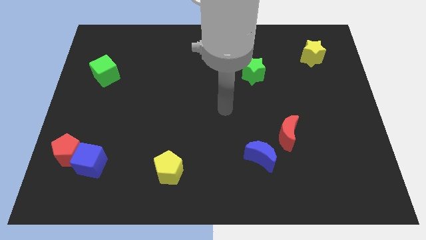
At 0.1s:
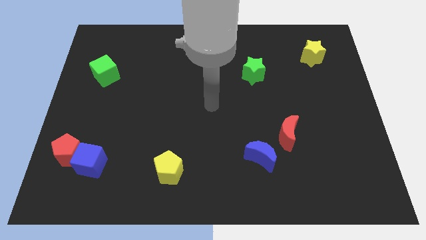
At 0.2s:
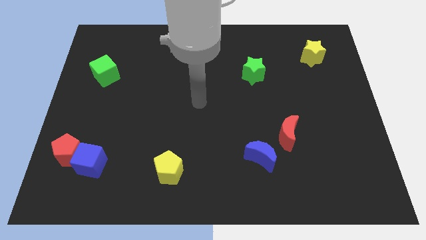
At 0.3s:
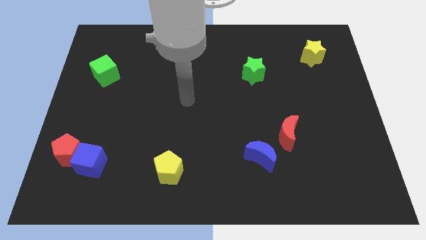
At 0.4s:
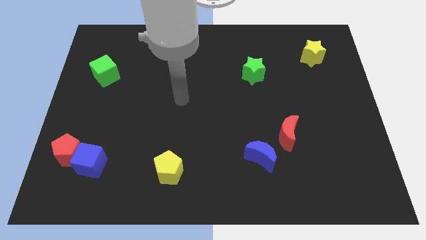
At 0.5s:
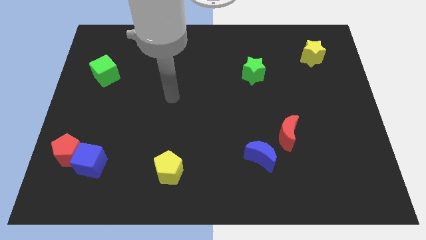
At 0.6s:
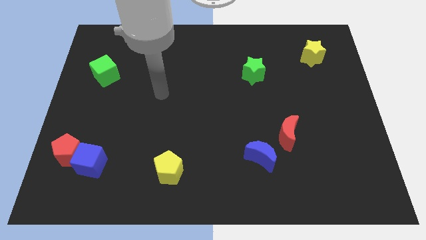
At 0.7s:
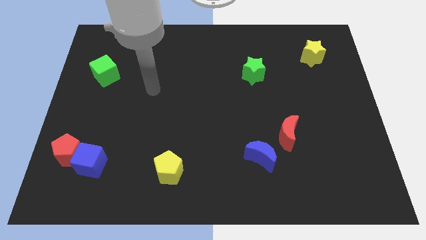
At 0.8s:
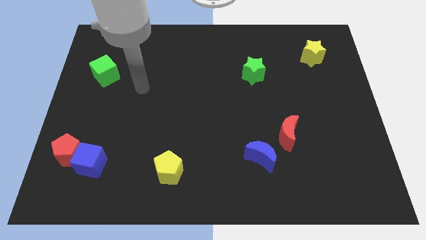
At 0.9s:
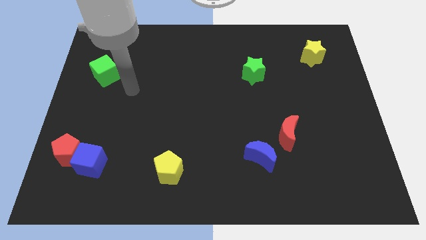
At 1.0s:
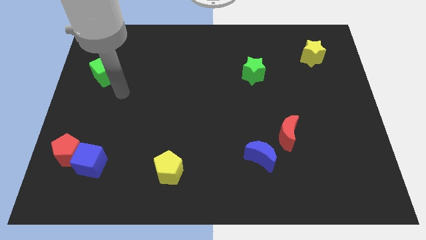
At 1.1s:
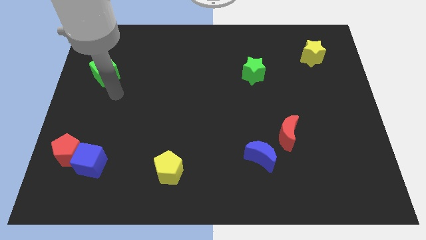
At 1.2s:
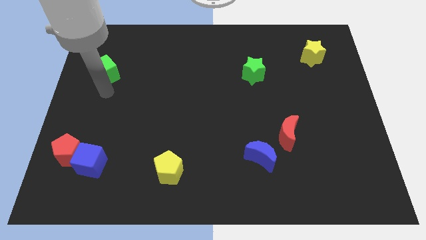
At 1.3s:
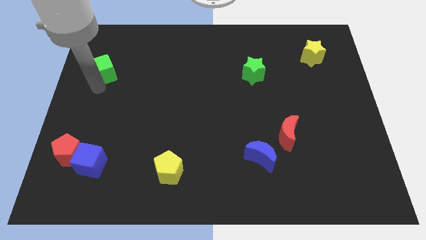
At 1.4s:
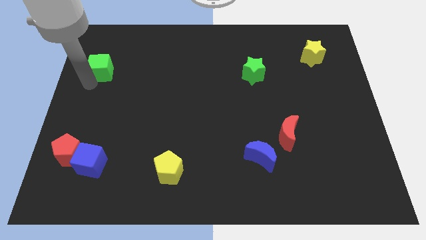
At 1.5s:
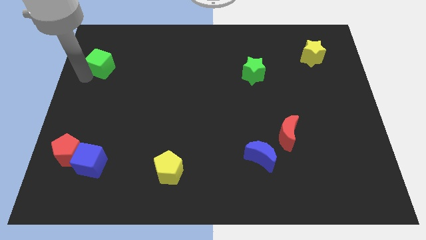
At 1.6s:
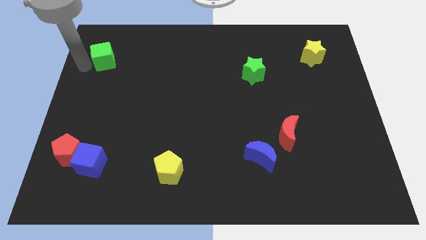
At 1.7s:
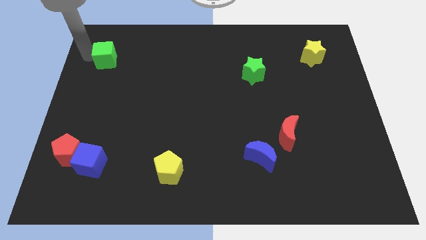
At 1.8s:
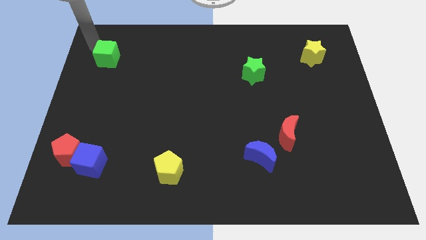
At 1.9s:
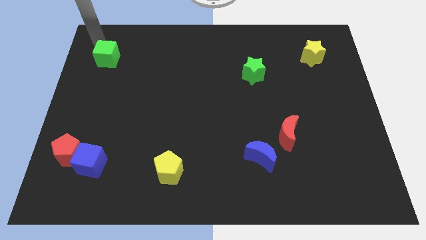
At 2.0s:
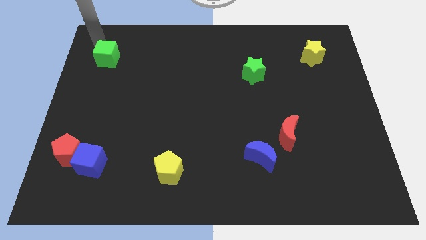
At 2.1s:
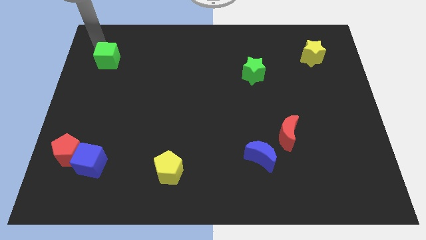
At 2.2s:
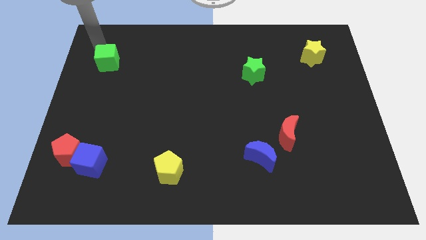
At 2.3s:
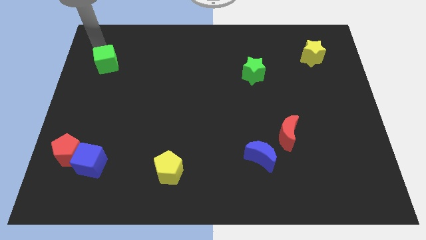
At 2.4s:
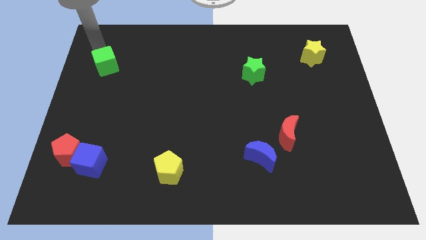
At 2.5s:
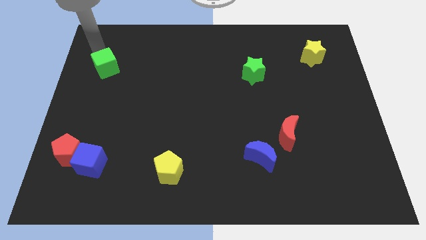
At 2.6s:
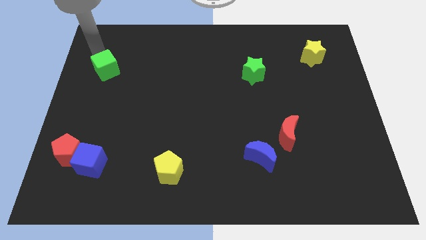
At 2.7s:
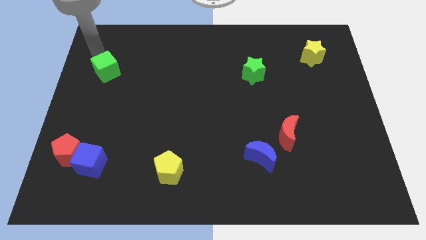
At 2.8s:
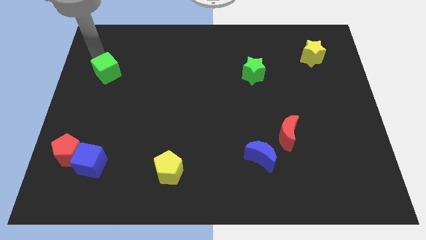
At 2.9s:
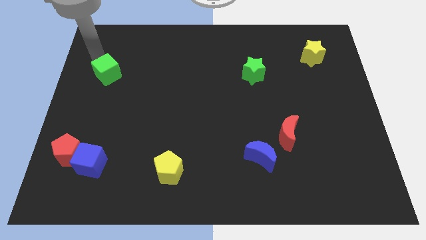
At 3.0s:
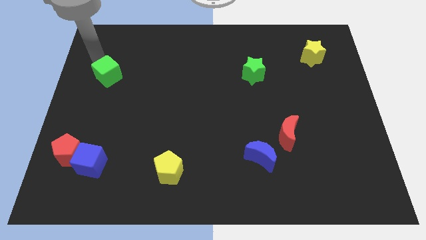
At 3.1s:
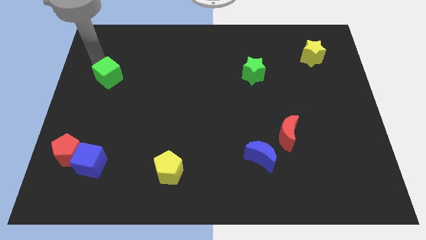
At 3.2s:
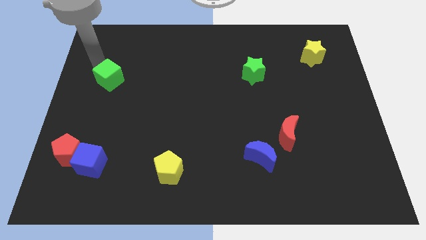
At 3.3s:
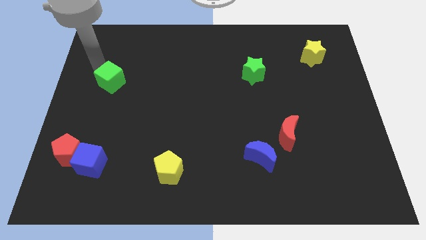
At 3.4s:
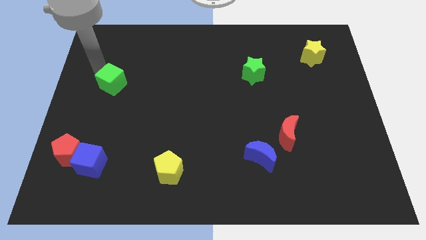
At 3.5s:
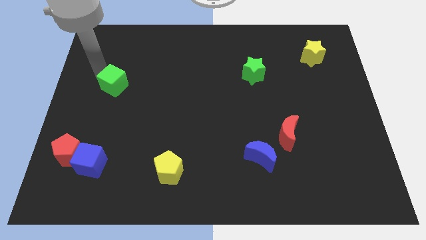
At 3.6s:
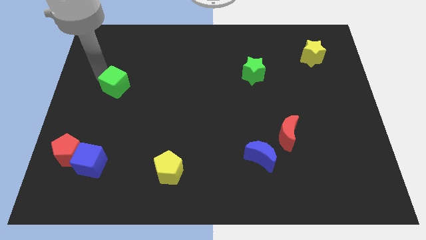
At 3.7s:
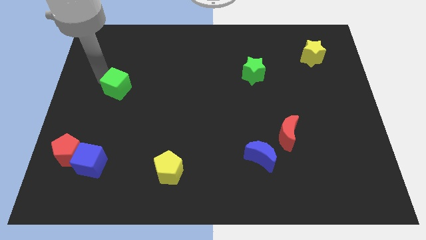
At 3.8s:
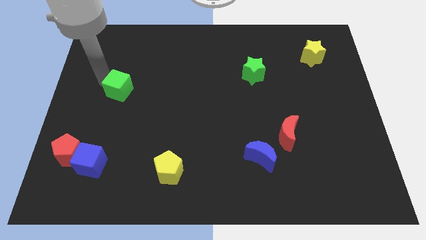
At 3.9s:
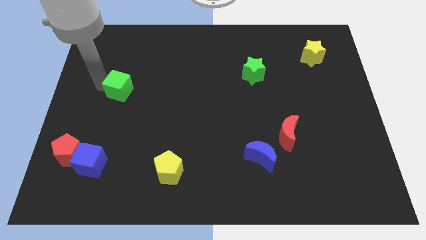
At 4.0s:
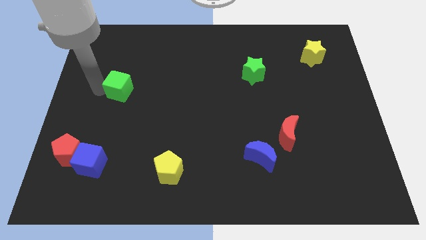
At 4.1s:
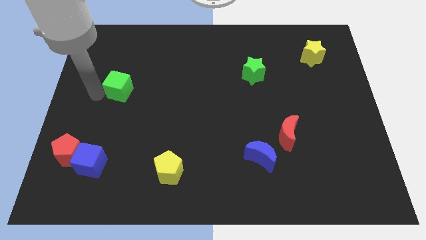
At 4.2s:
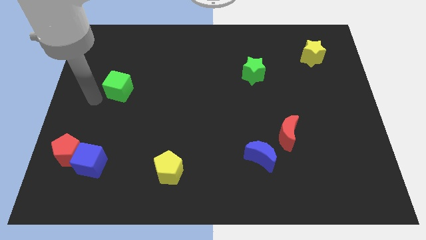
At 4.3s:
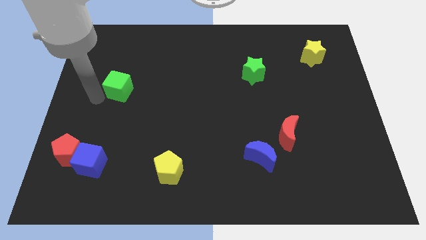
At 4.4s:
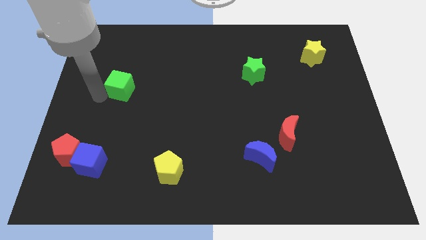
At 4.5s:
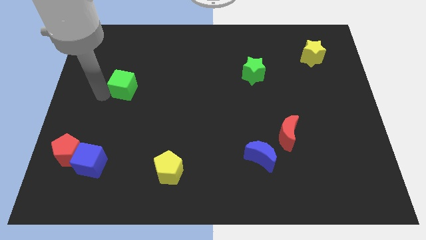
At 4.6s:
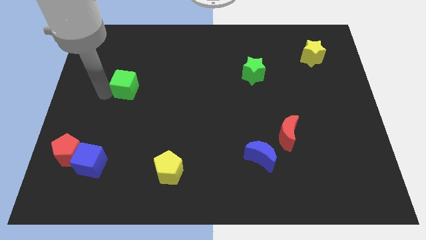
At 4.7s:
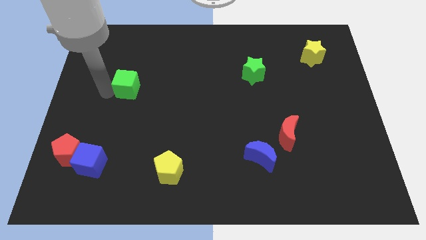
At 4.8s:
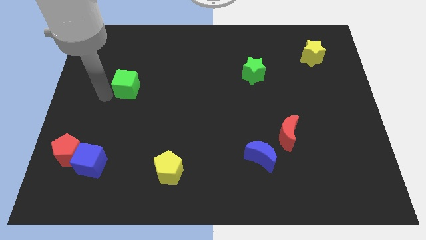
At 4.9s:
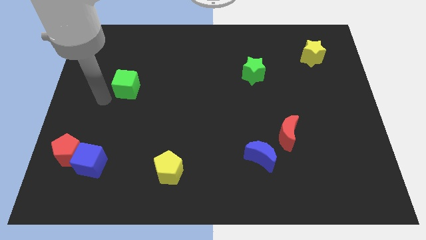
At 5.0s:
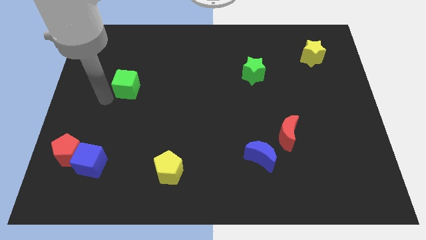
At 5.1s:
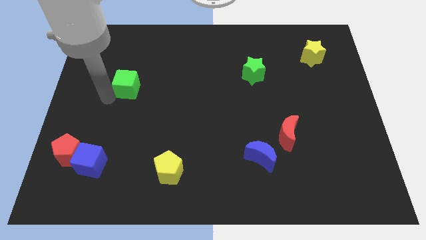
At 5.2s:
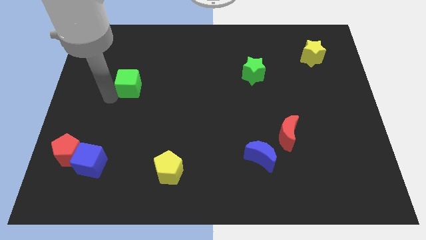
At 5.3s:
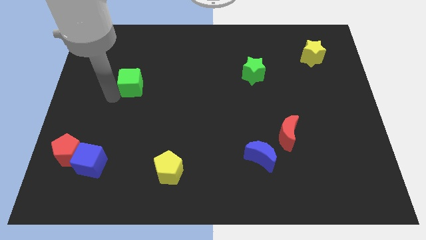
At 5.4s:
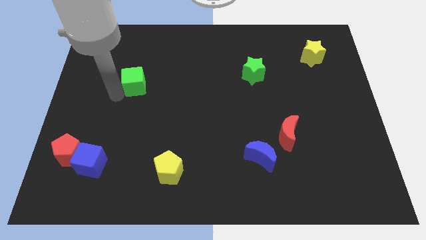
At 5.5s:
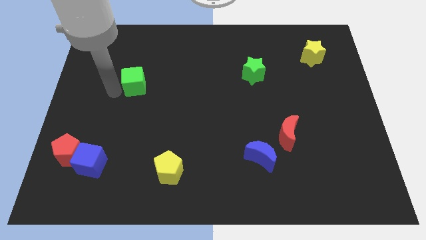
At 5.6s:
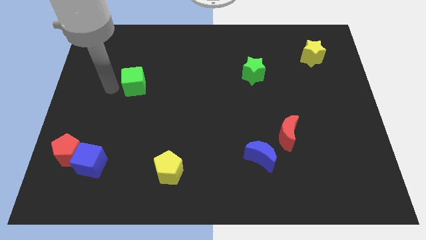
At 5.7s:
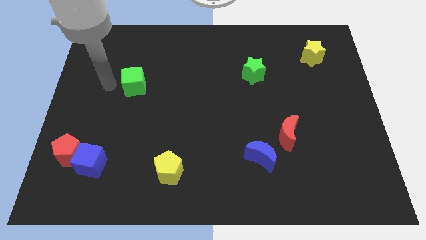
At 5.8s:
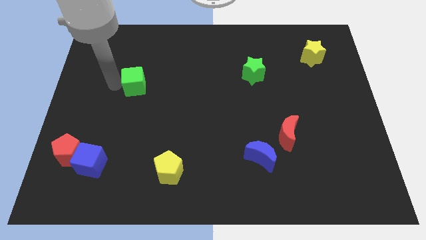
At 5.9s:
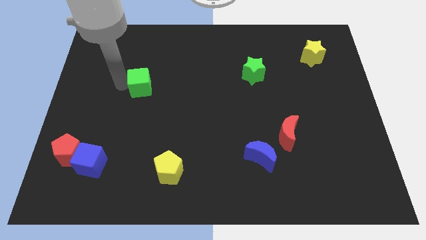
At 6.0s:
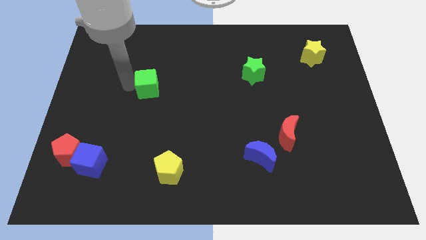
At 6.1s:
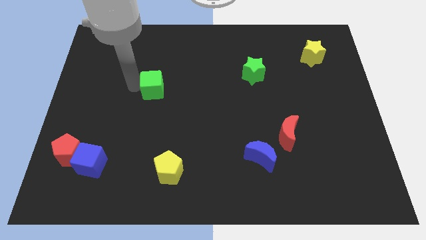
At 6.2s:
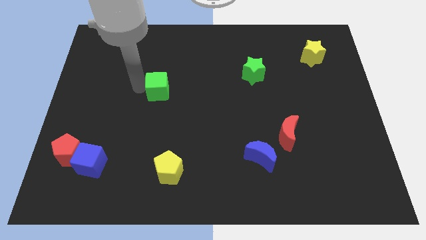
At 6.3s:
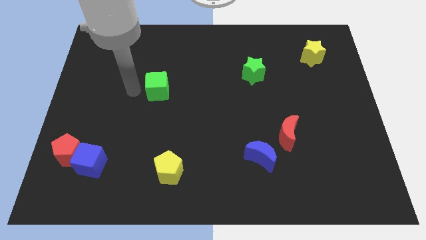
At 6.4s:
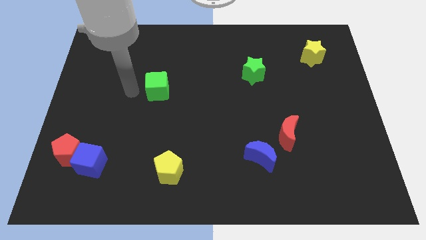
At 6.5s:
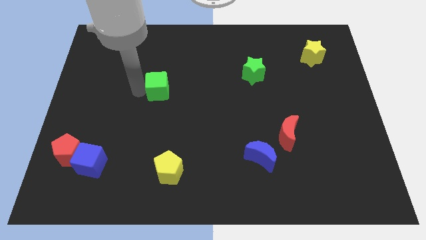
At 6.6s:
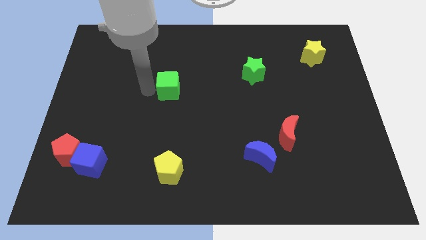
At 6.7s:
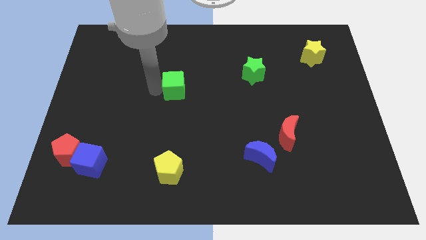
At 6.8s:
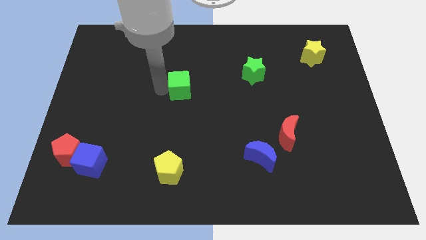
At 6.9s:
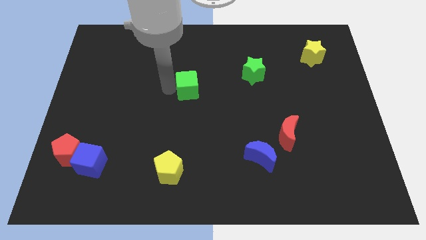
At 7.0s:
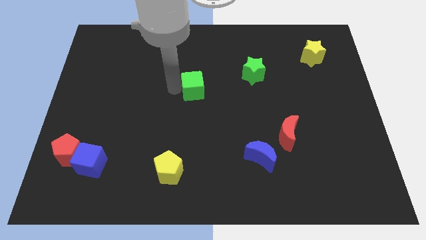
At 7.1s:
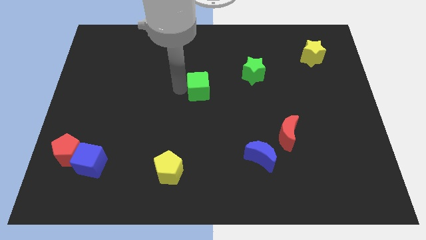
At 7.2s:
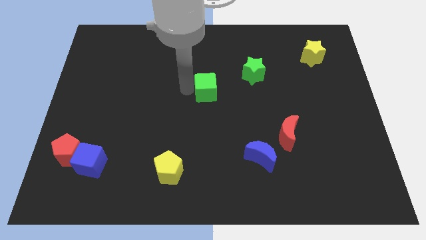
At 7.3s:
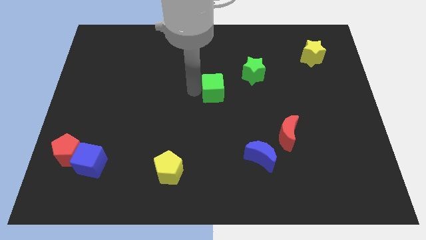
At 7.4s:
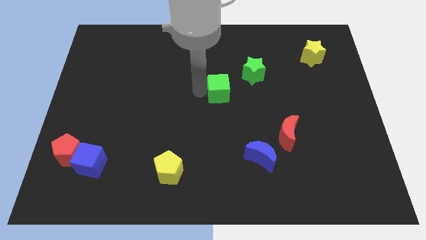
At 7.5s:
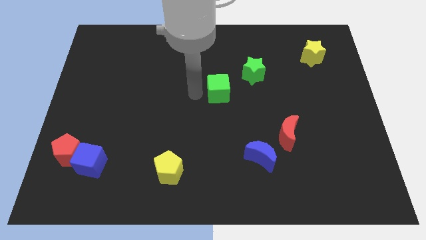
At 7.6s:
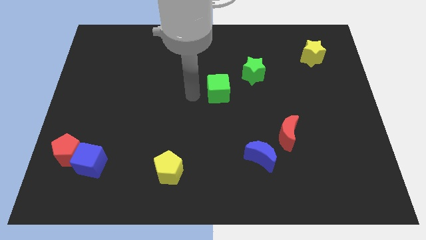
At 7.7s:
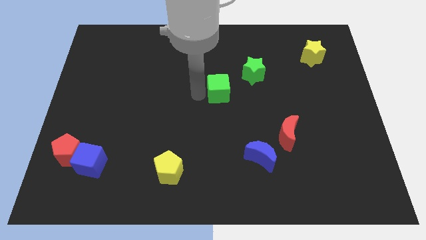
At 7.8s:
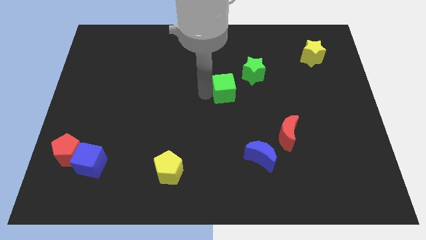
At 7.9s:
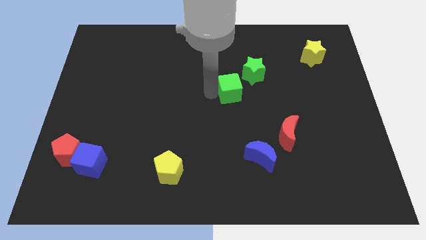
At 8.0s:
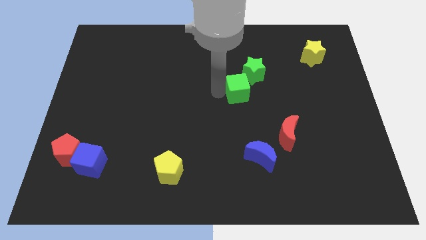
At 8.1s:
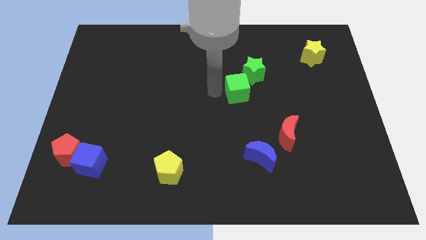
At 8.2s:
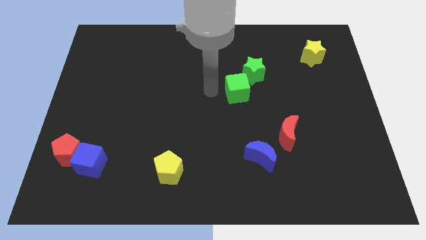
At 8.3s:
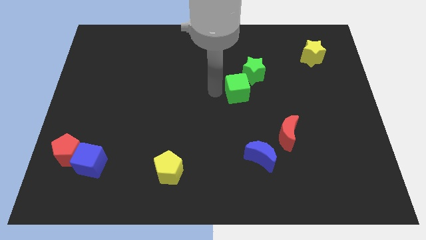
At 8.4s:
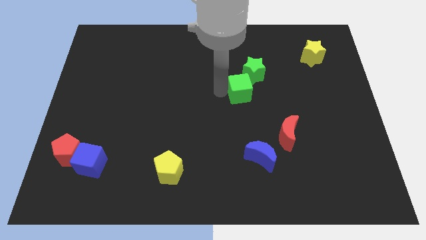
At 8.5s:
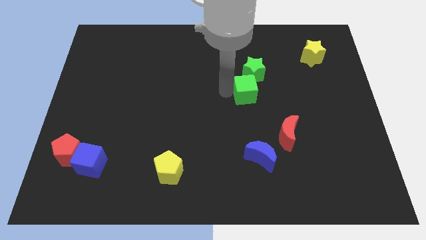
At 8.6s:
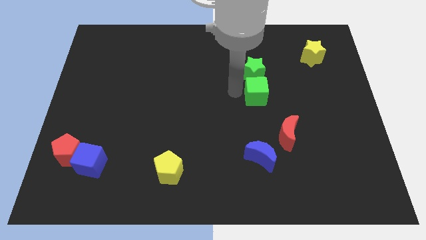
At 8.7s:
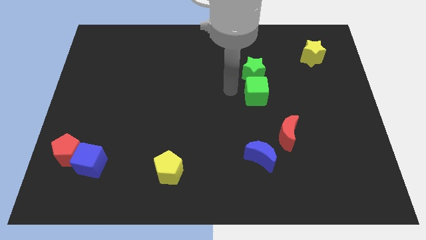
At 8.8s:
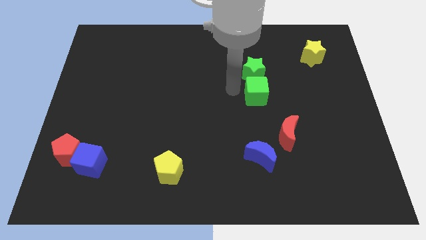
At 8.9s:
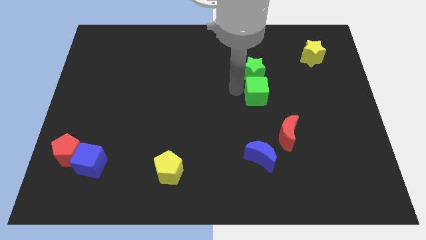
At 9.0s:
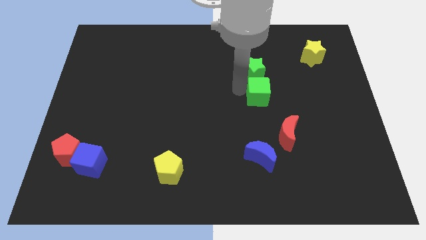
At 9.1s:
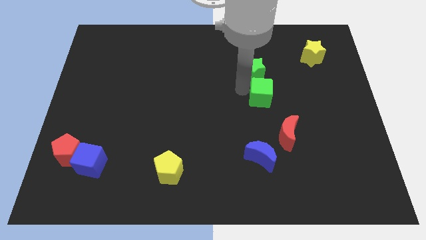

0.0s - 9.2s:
push the green cube above the red moon
